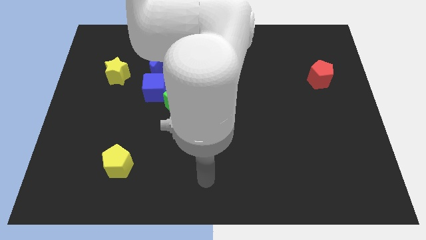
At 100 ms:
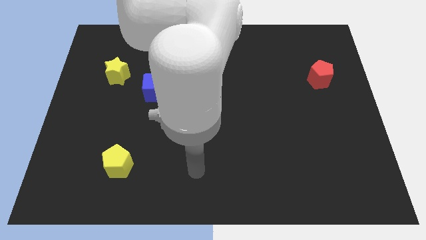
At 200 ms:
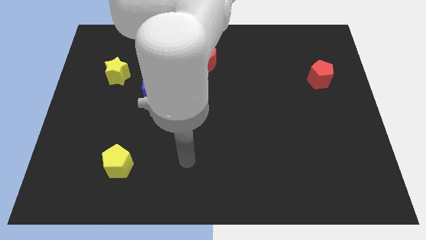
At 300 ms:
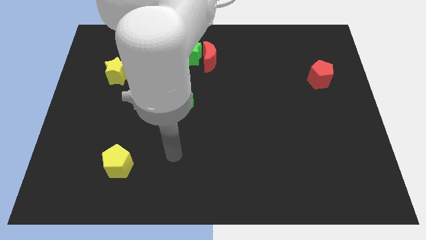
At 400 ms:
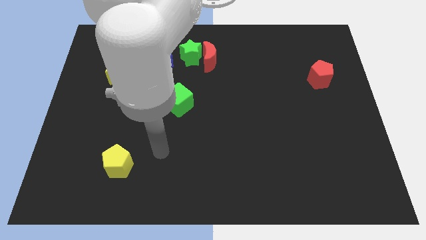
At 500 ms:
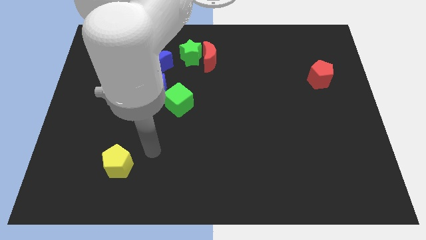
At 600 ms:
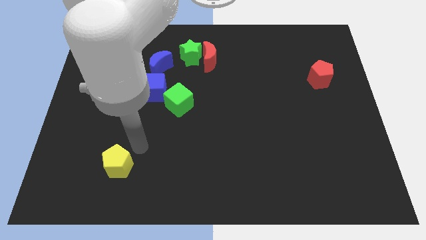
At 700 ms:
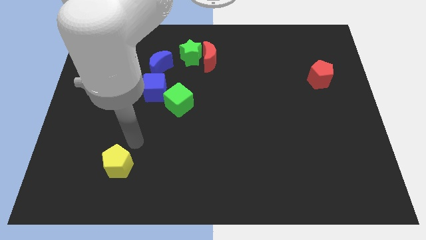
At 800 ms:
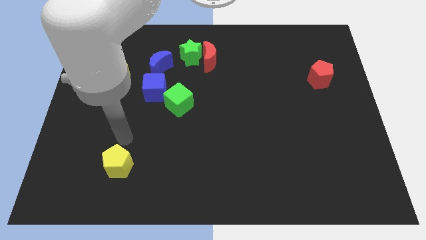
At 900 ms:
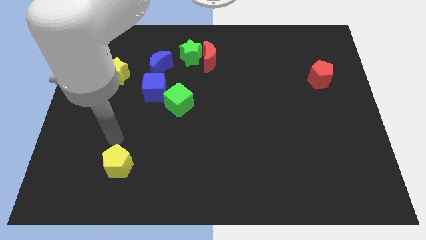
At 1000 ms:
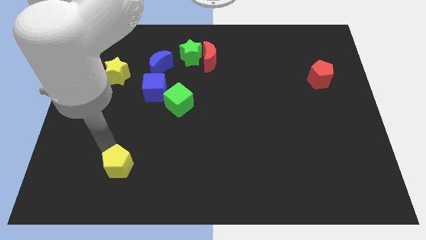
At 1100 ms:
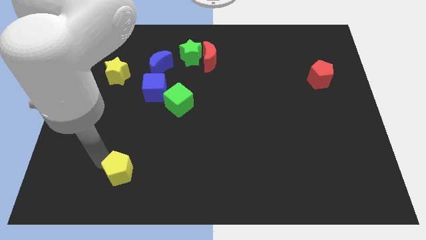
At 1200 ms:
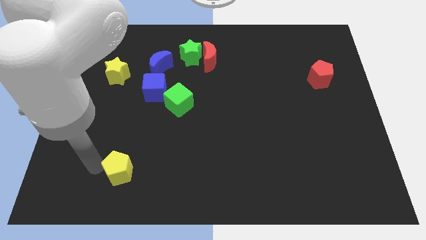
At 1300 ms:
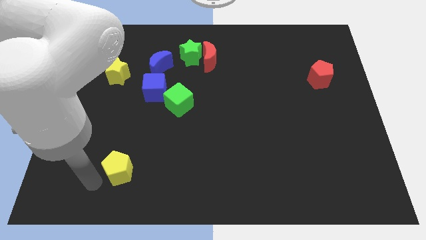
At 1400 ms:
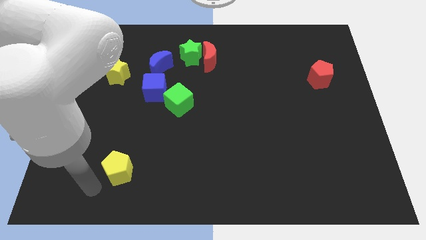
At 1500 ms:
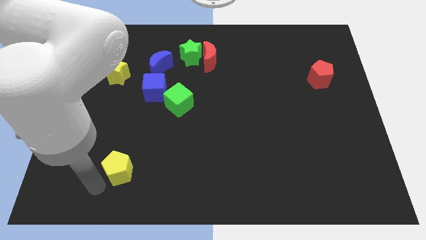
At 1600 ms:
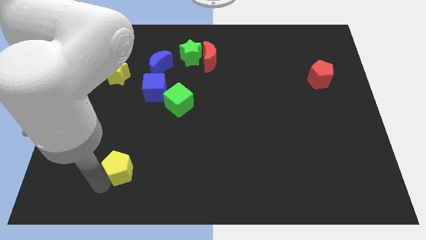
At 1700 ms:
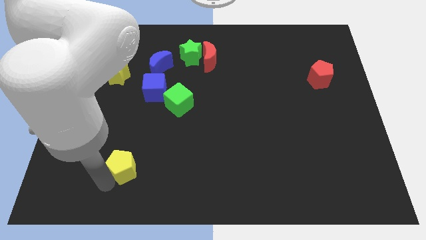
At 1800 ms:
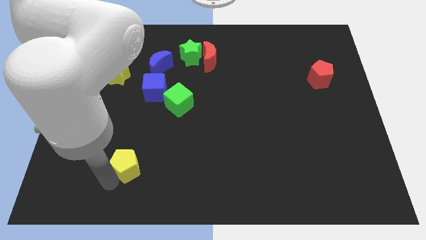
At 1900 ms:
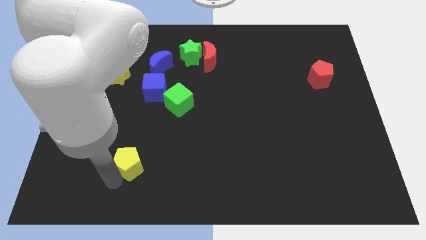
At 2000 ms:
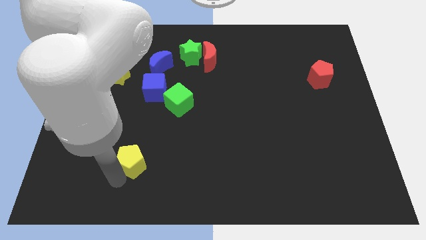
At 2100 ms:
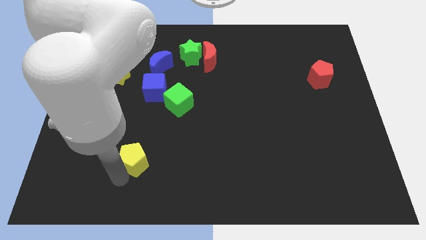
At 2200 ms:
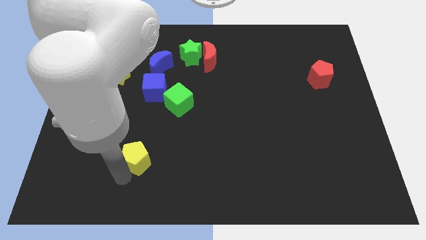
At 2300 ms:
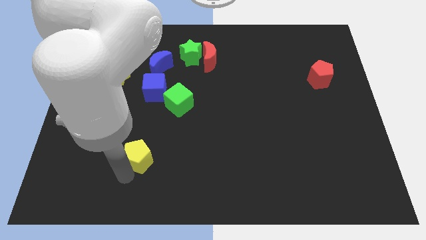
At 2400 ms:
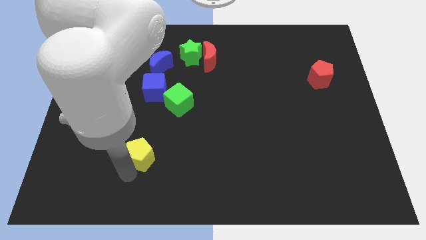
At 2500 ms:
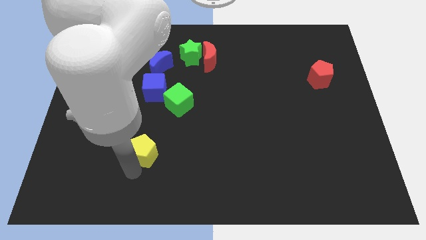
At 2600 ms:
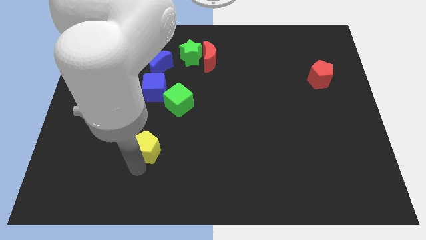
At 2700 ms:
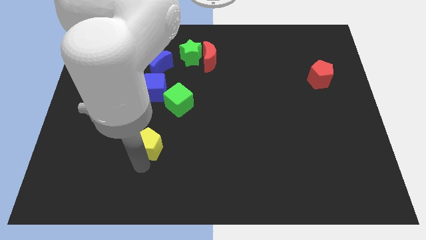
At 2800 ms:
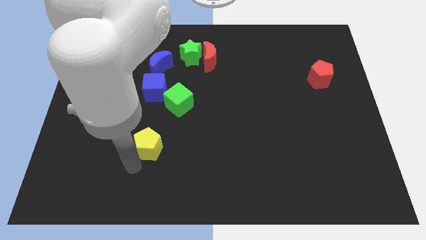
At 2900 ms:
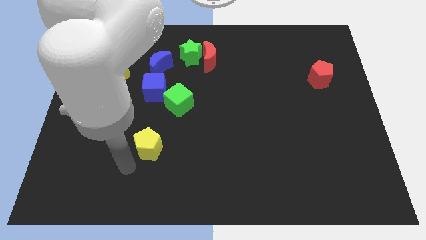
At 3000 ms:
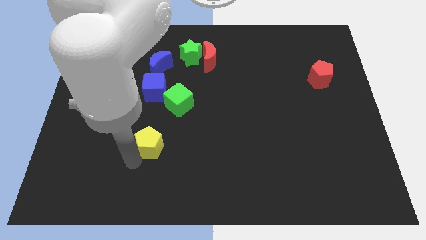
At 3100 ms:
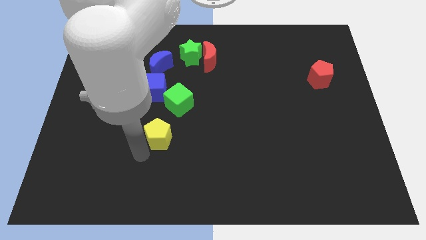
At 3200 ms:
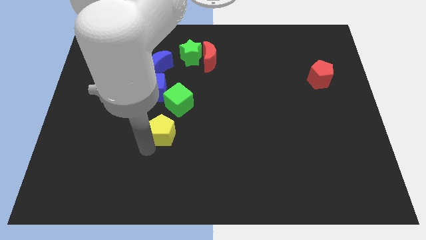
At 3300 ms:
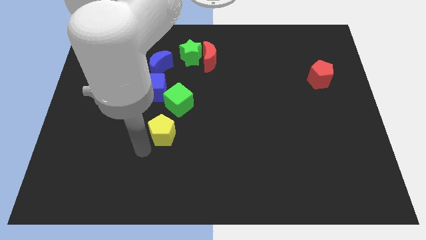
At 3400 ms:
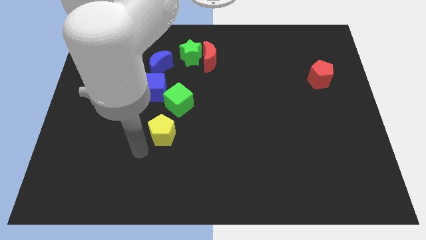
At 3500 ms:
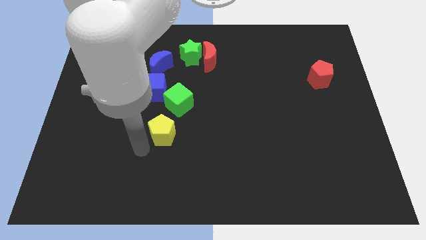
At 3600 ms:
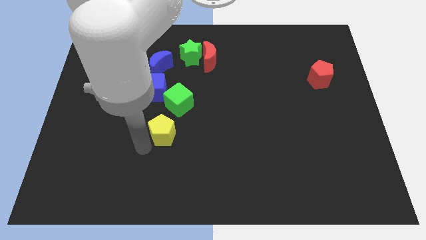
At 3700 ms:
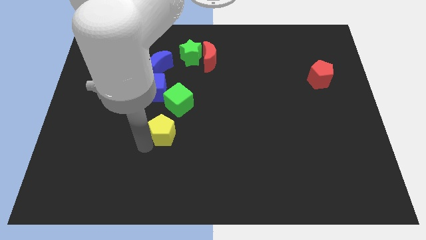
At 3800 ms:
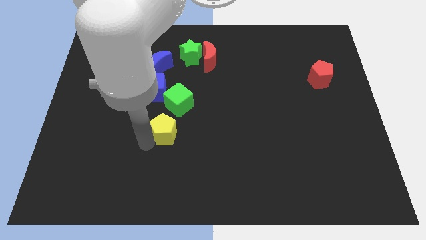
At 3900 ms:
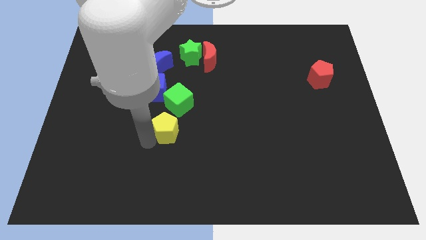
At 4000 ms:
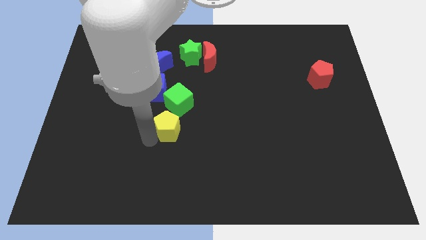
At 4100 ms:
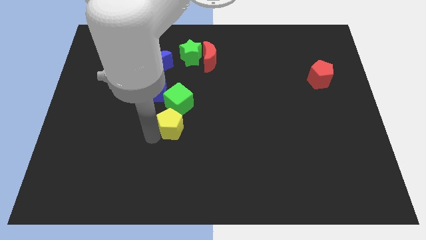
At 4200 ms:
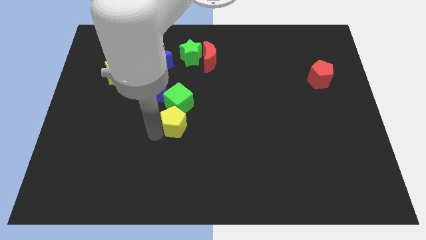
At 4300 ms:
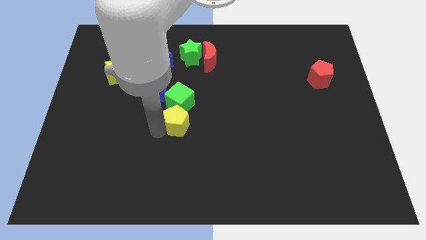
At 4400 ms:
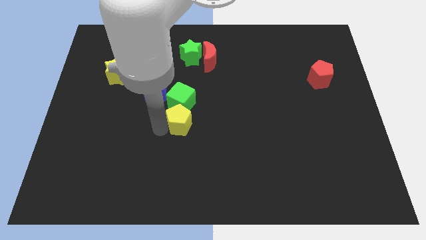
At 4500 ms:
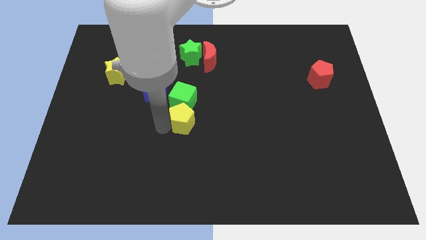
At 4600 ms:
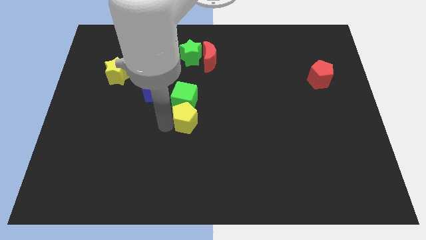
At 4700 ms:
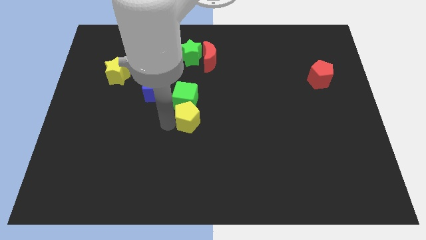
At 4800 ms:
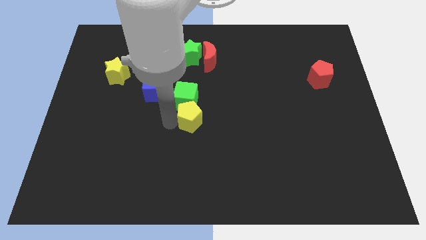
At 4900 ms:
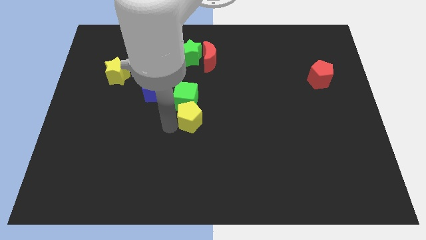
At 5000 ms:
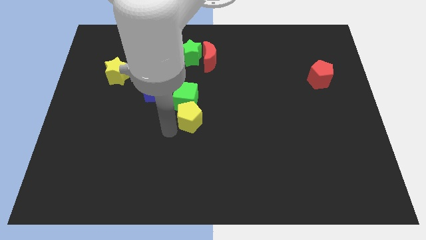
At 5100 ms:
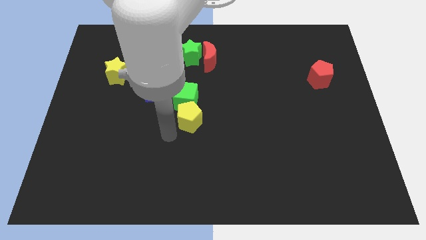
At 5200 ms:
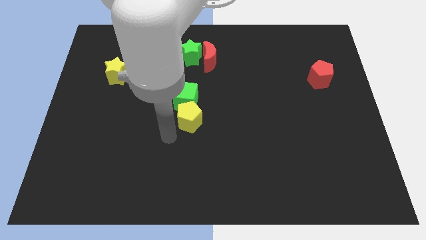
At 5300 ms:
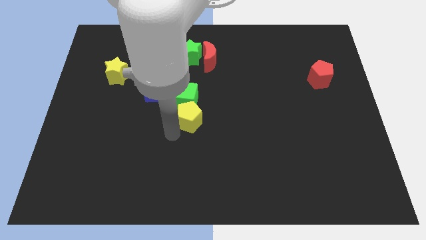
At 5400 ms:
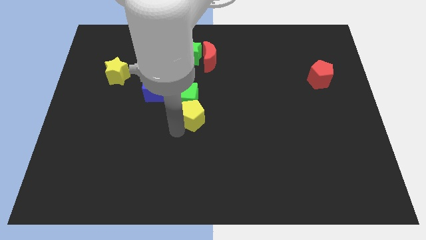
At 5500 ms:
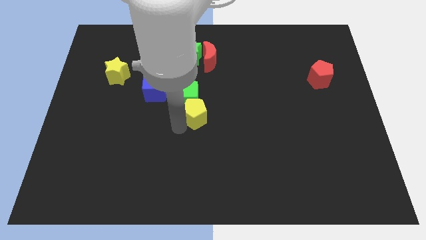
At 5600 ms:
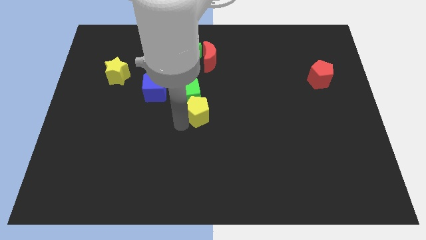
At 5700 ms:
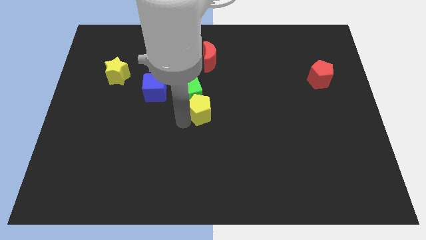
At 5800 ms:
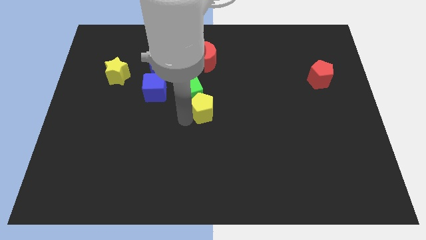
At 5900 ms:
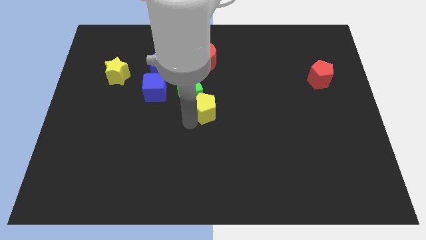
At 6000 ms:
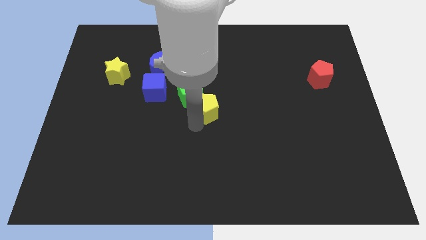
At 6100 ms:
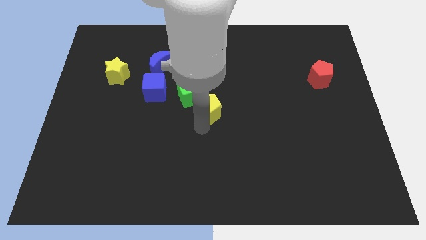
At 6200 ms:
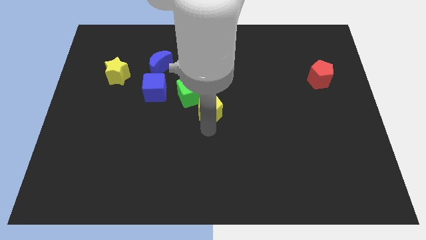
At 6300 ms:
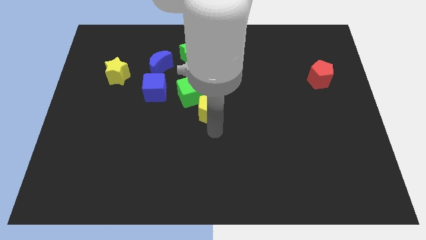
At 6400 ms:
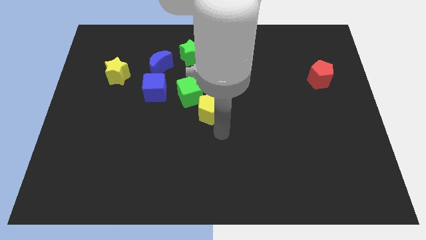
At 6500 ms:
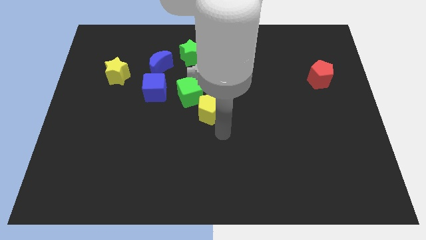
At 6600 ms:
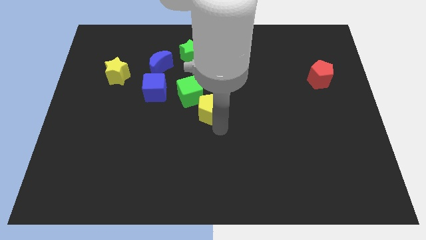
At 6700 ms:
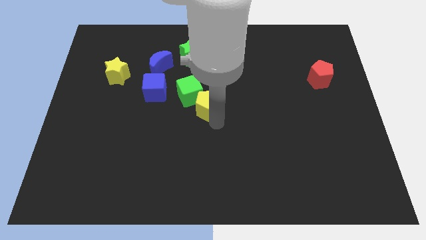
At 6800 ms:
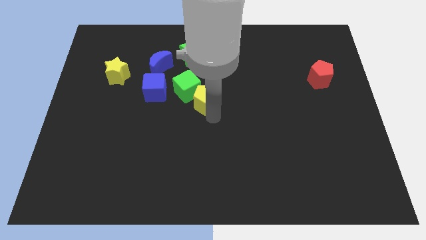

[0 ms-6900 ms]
slide the yellow pentagon to the right of the blue cube

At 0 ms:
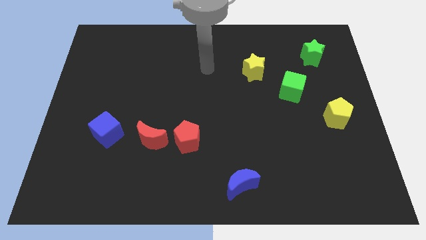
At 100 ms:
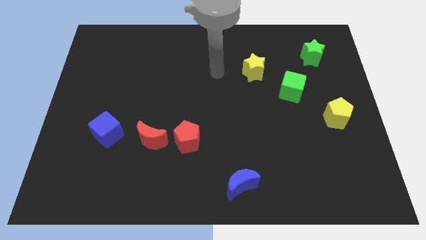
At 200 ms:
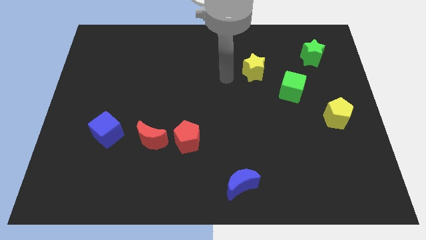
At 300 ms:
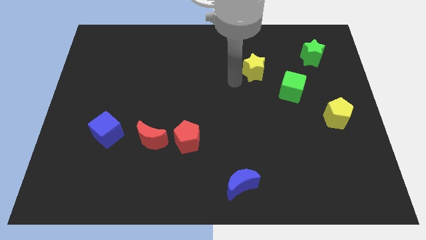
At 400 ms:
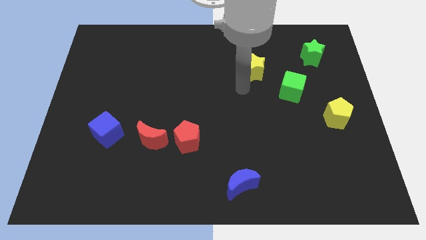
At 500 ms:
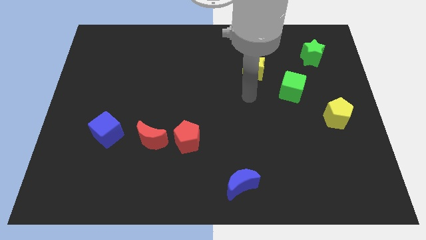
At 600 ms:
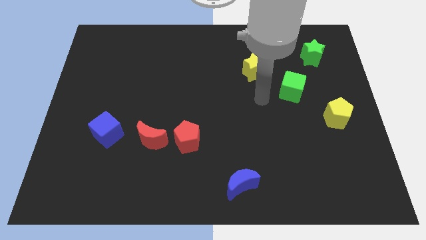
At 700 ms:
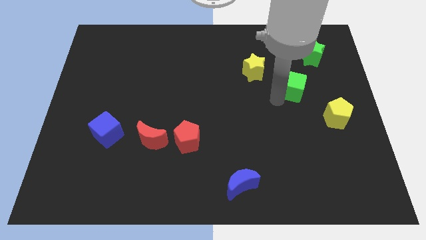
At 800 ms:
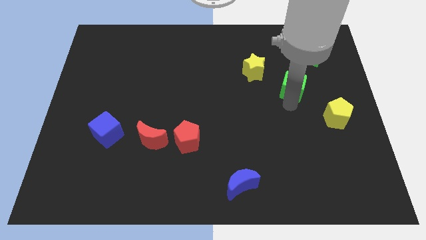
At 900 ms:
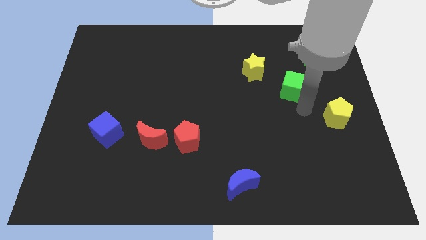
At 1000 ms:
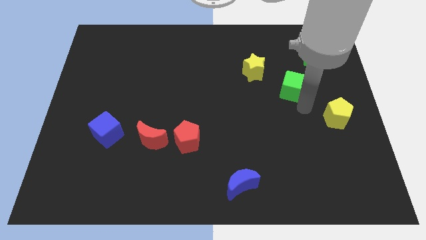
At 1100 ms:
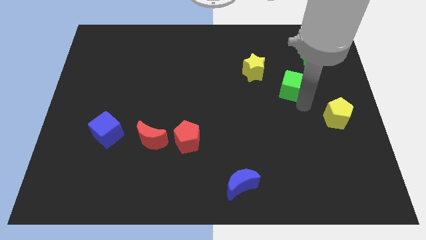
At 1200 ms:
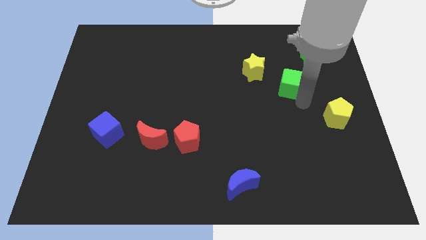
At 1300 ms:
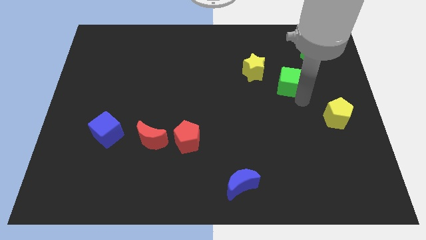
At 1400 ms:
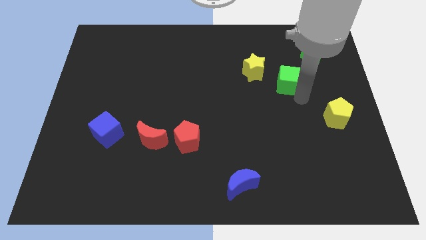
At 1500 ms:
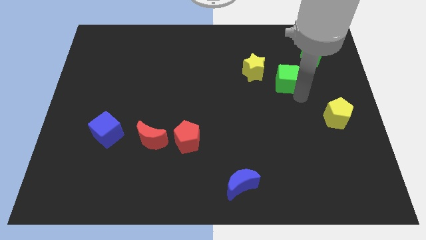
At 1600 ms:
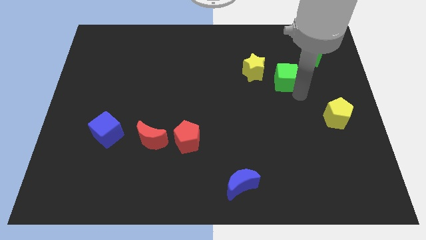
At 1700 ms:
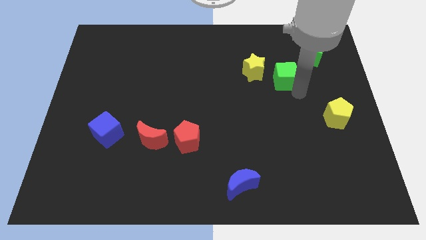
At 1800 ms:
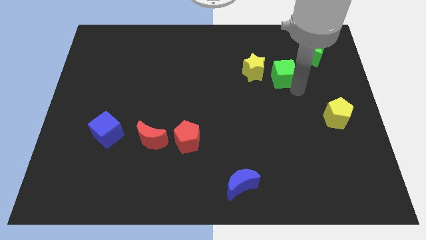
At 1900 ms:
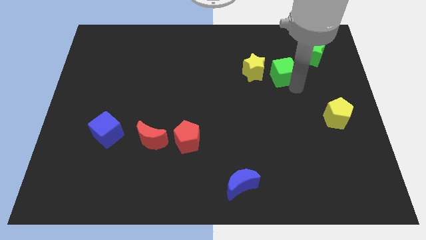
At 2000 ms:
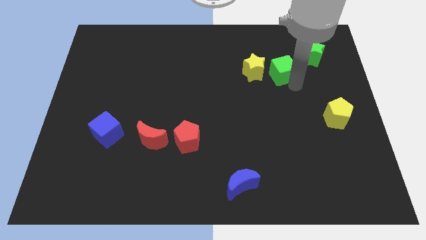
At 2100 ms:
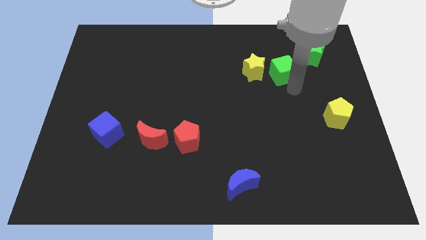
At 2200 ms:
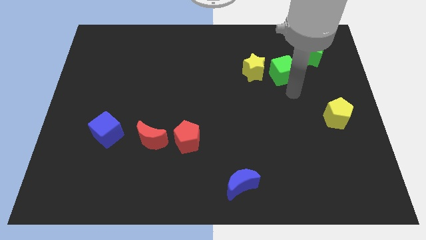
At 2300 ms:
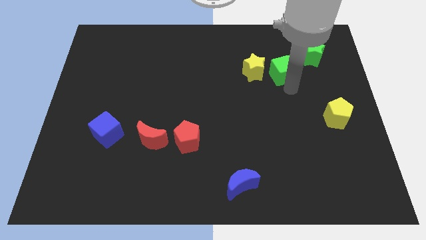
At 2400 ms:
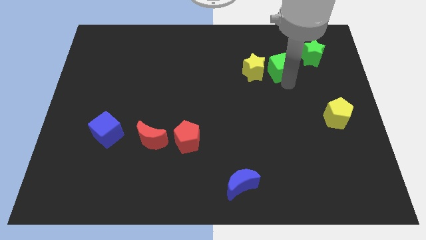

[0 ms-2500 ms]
move the green cube just left of the green star
